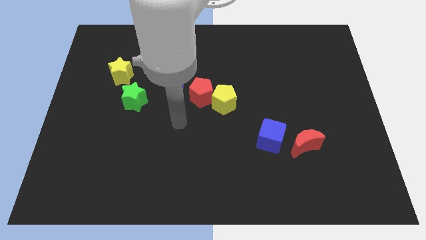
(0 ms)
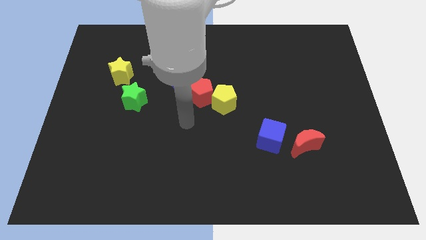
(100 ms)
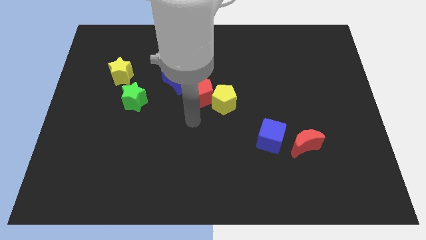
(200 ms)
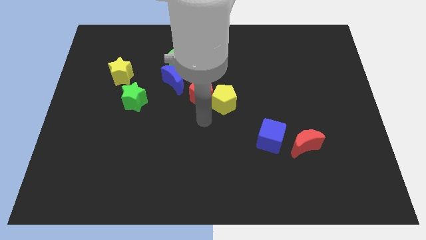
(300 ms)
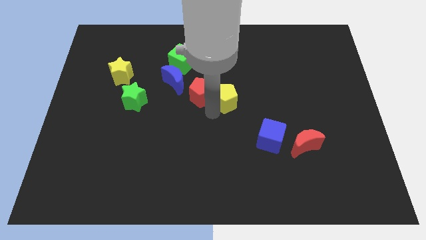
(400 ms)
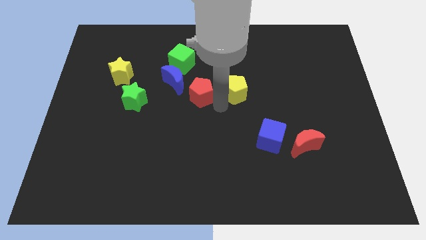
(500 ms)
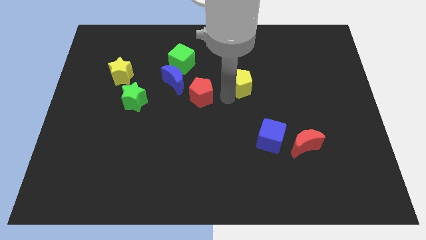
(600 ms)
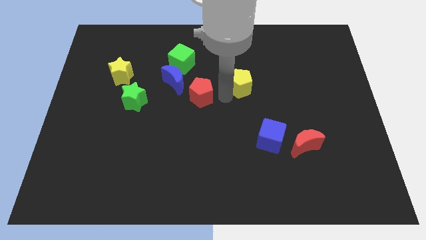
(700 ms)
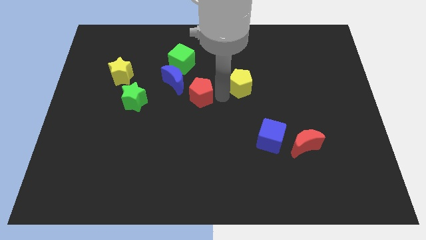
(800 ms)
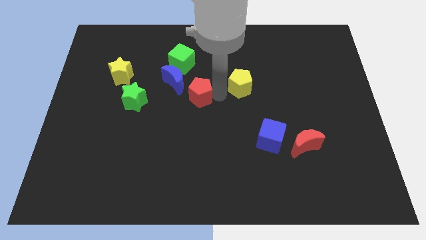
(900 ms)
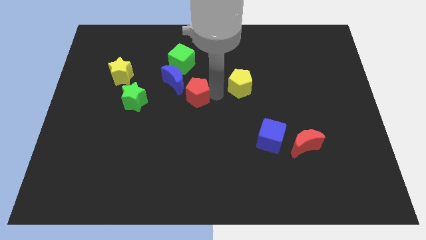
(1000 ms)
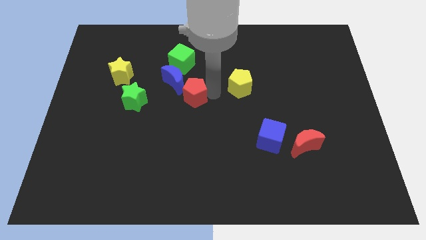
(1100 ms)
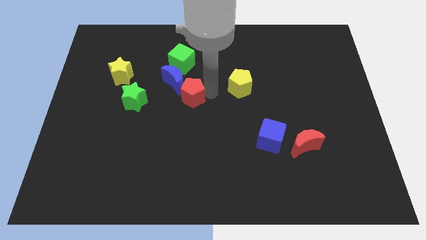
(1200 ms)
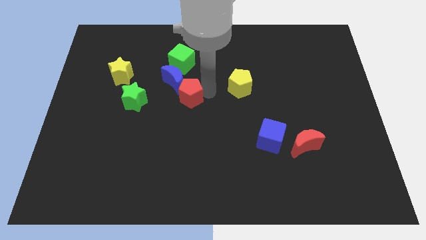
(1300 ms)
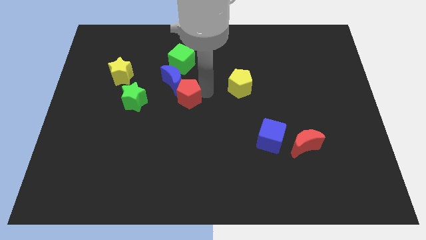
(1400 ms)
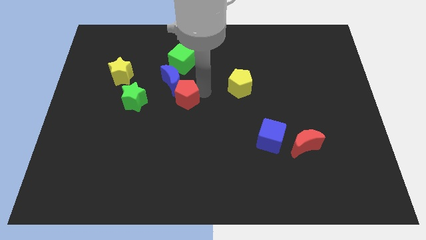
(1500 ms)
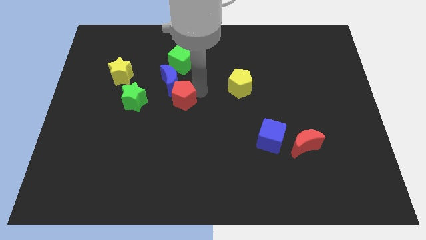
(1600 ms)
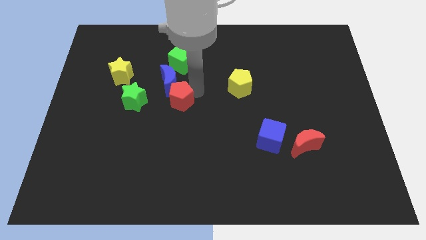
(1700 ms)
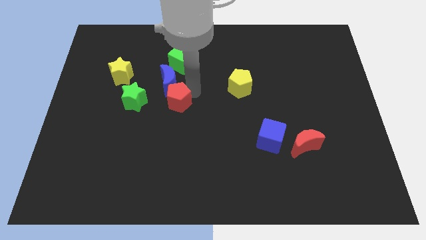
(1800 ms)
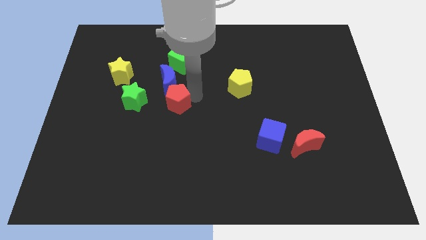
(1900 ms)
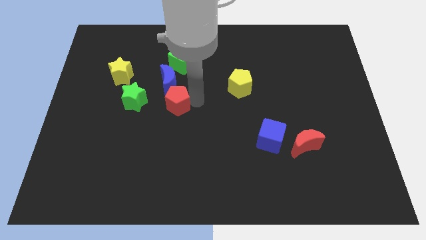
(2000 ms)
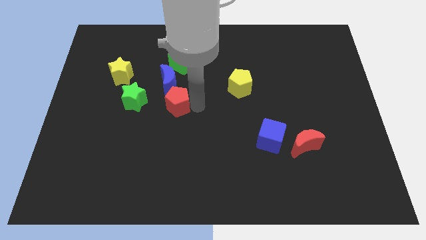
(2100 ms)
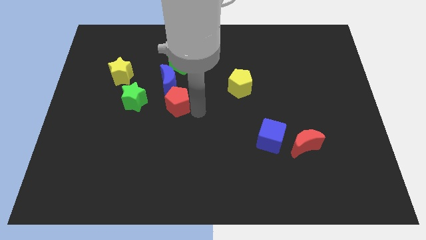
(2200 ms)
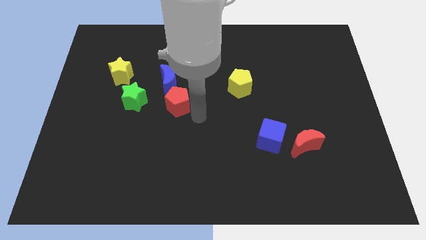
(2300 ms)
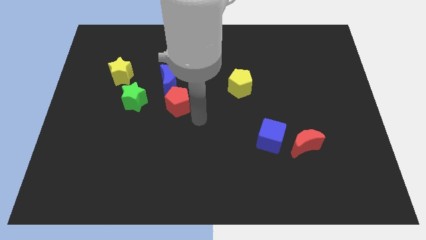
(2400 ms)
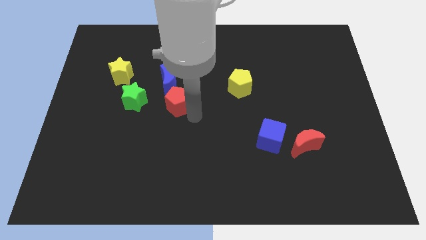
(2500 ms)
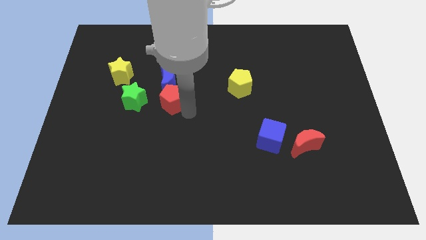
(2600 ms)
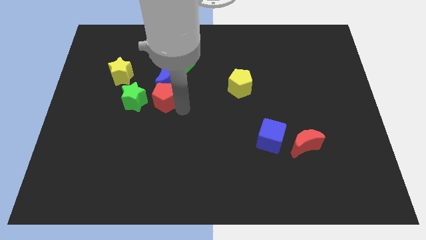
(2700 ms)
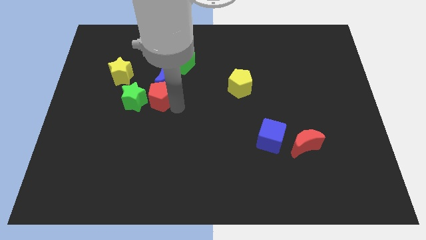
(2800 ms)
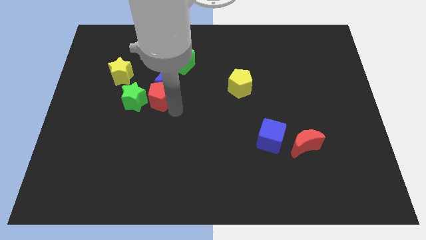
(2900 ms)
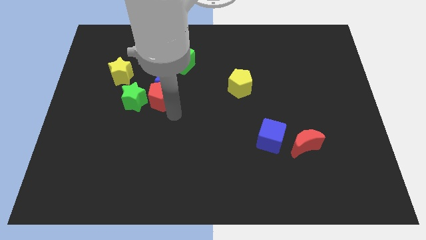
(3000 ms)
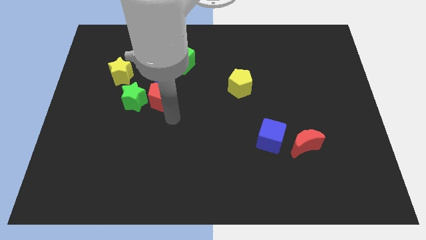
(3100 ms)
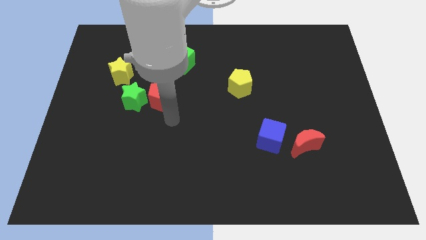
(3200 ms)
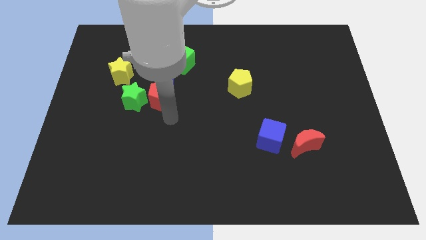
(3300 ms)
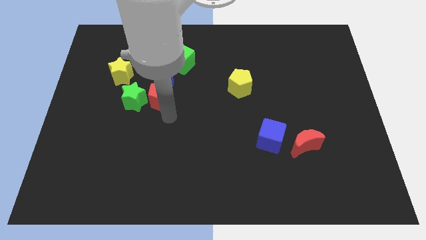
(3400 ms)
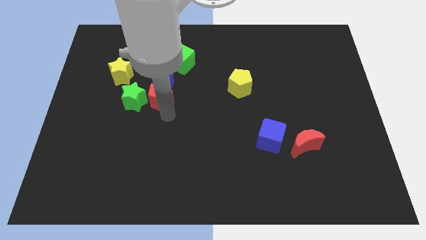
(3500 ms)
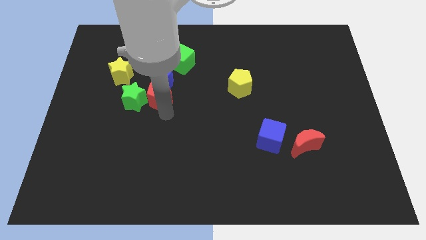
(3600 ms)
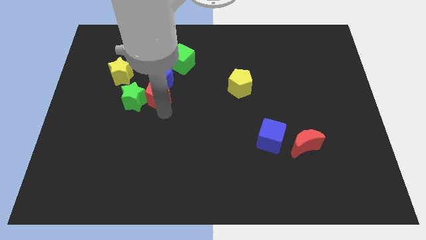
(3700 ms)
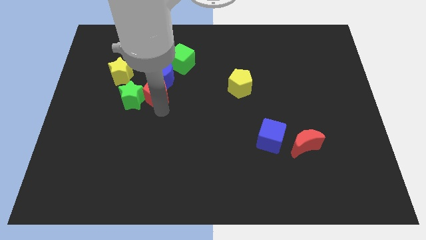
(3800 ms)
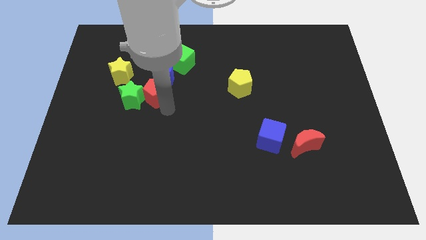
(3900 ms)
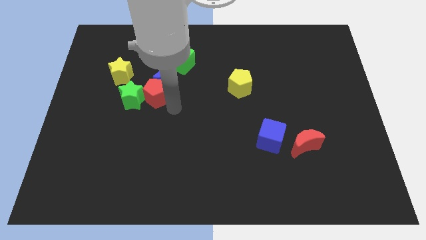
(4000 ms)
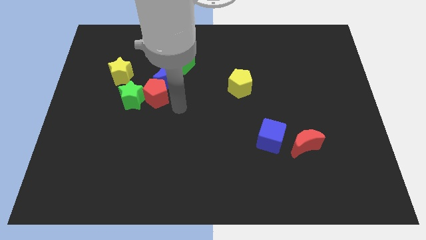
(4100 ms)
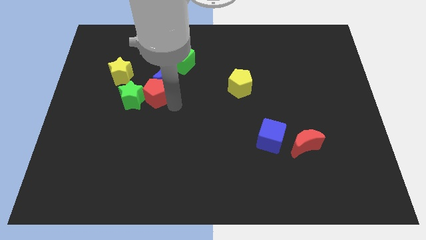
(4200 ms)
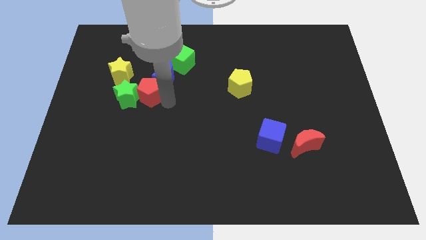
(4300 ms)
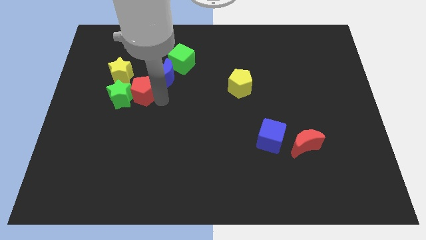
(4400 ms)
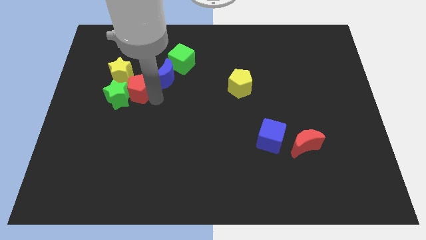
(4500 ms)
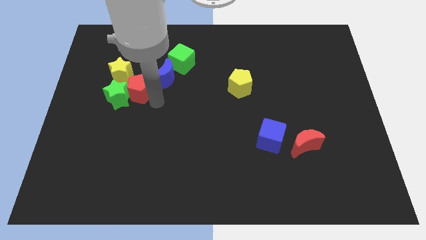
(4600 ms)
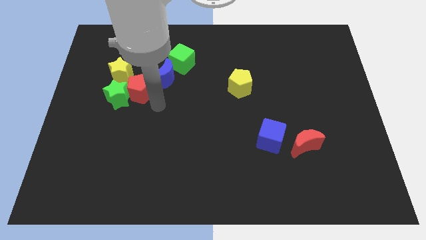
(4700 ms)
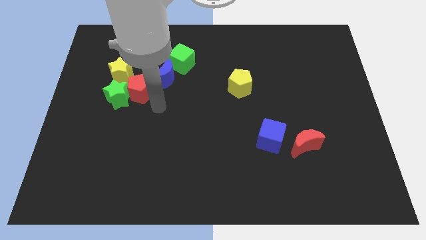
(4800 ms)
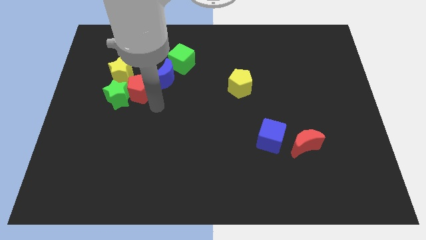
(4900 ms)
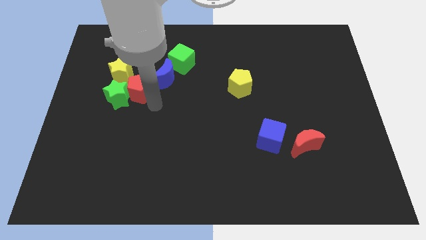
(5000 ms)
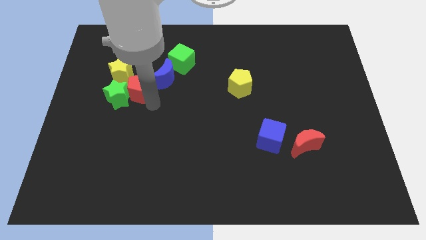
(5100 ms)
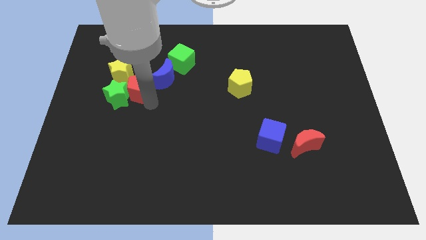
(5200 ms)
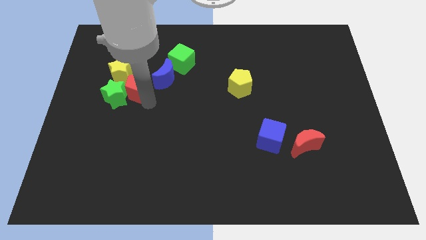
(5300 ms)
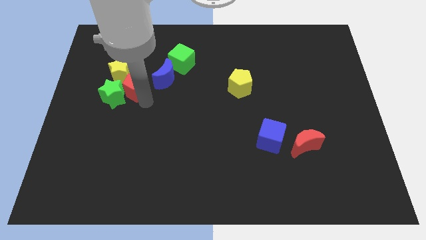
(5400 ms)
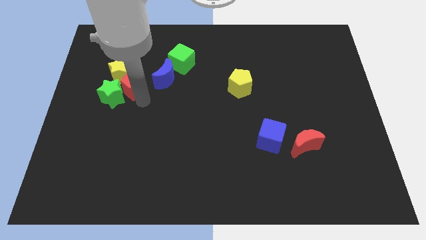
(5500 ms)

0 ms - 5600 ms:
push the red pentagon close to the yellow star
